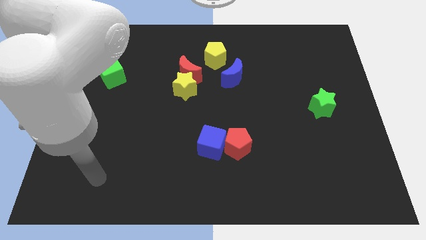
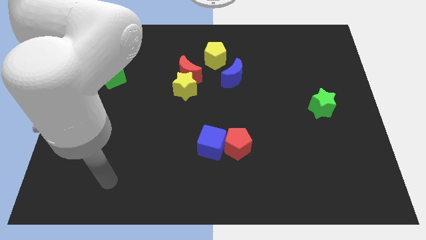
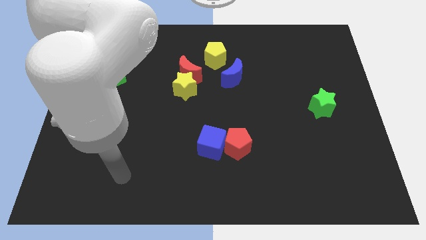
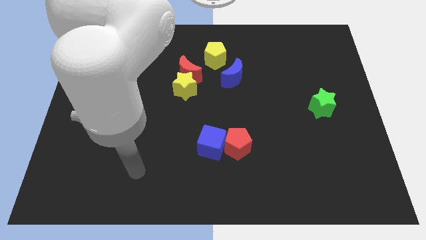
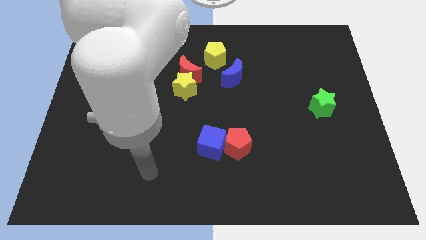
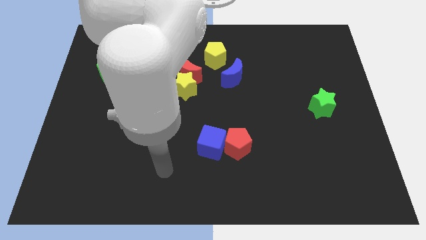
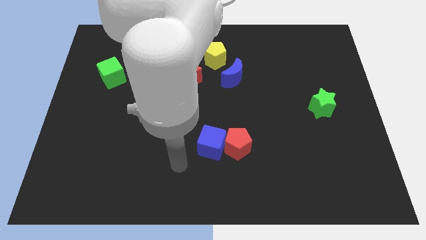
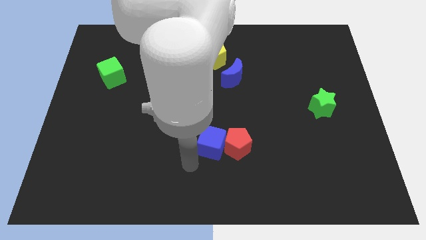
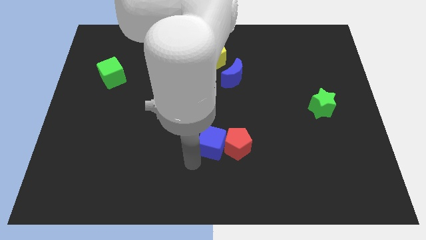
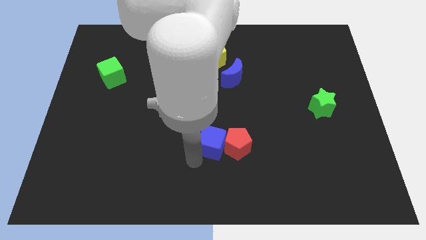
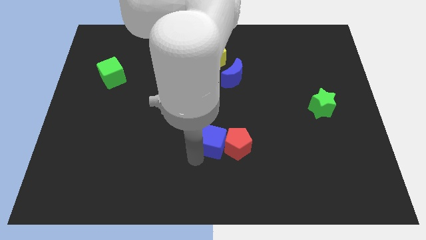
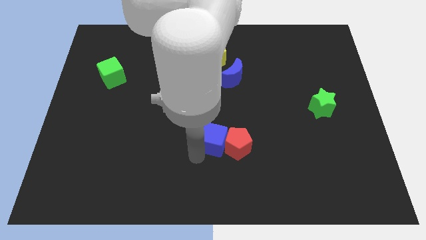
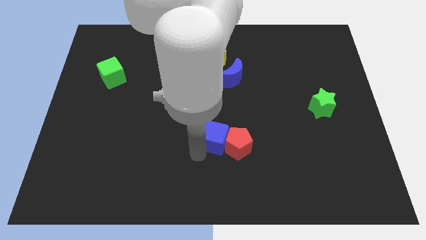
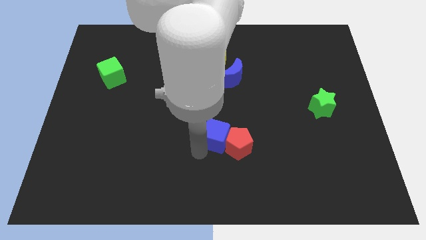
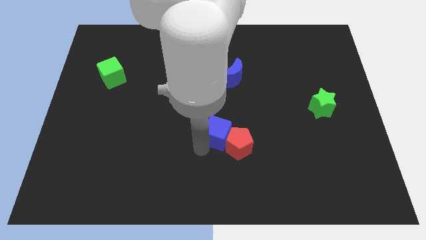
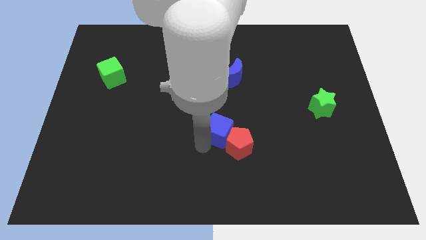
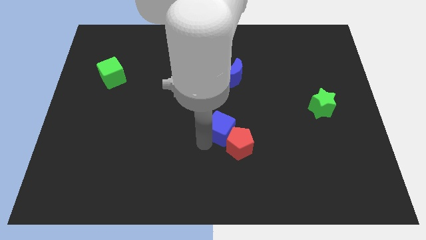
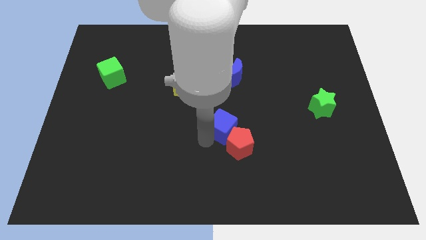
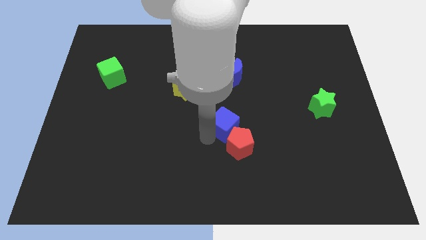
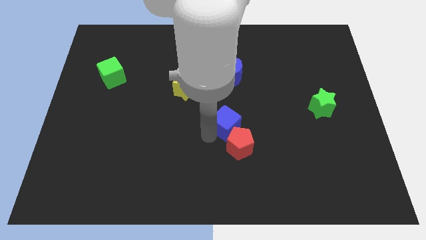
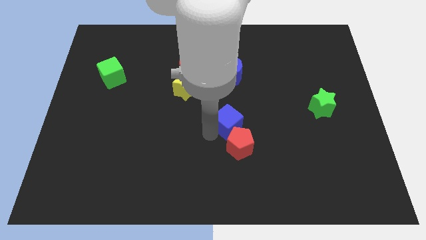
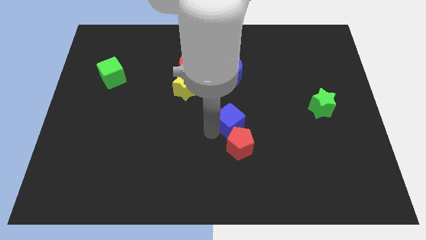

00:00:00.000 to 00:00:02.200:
slightly push the blue cube upwards and right

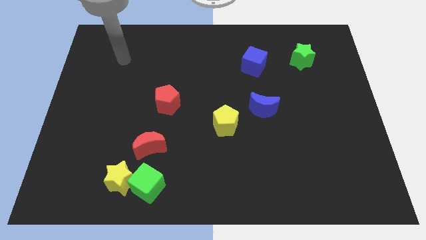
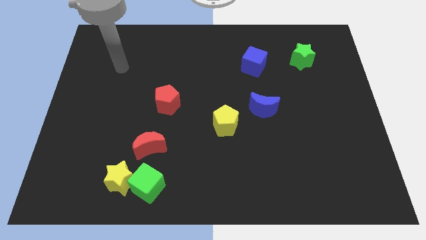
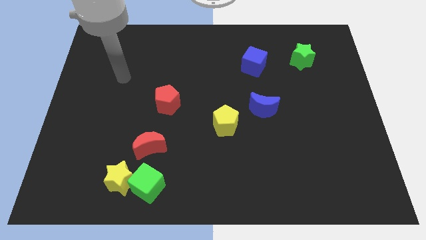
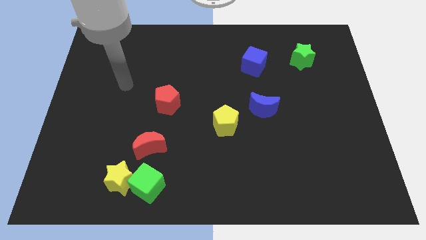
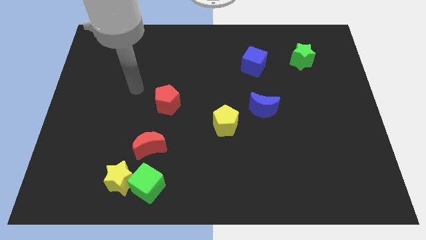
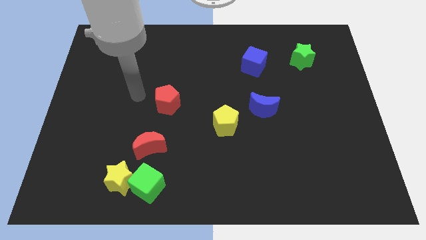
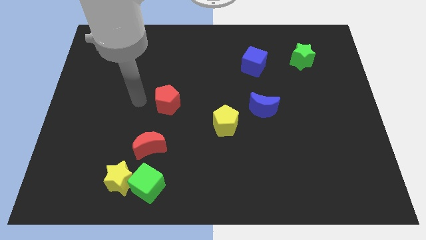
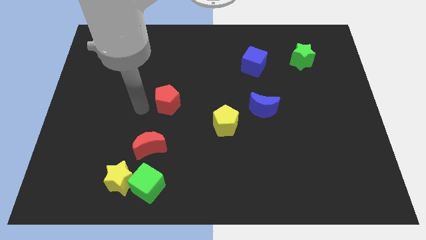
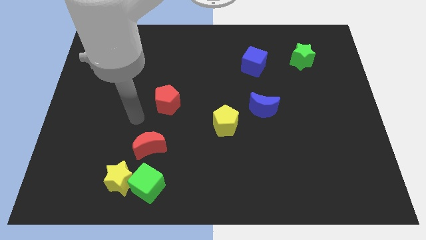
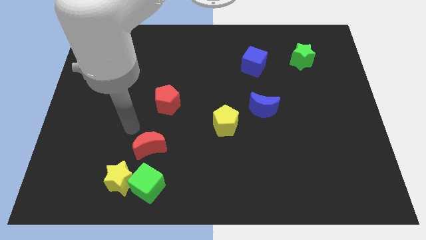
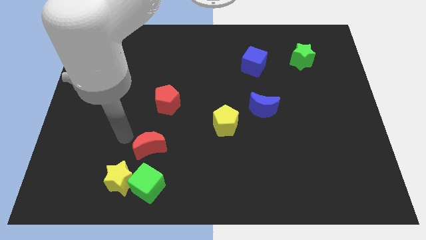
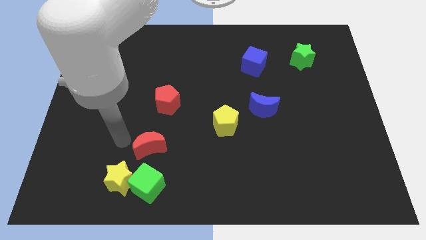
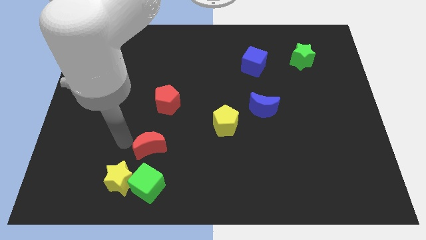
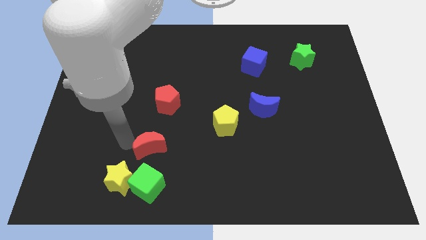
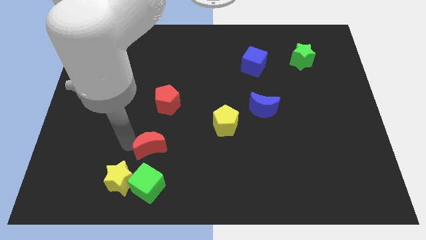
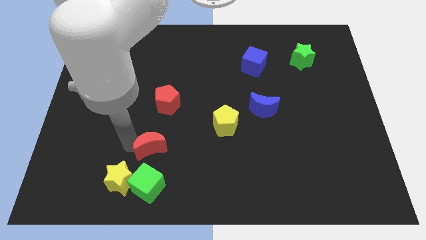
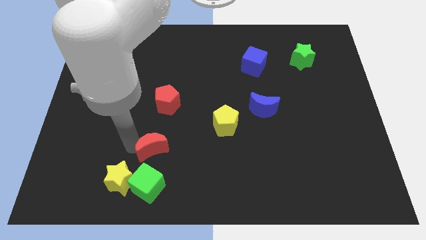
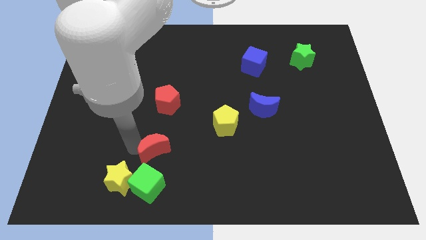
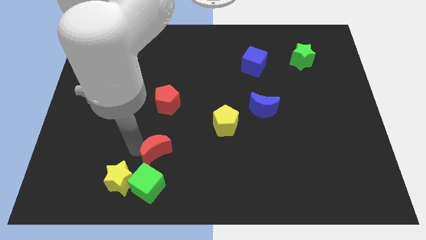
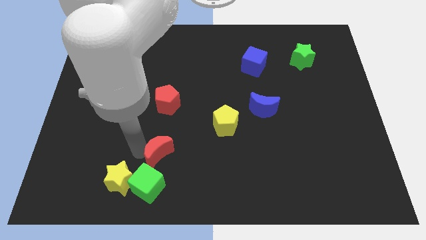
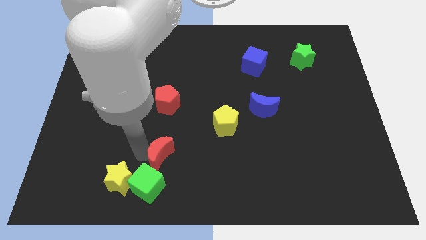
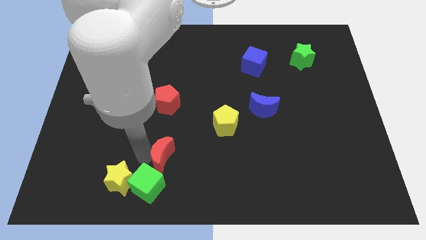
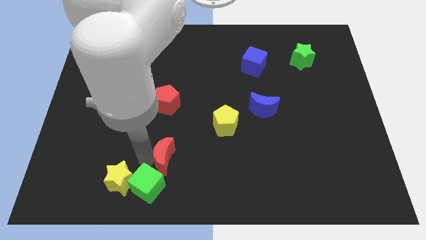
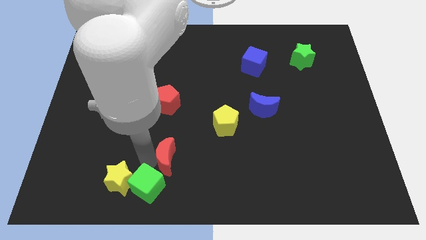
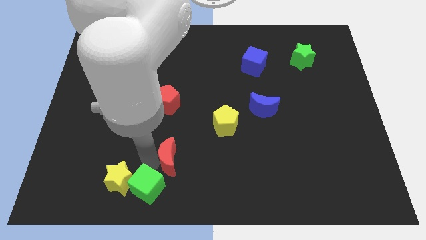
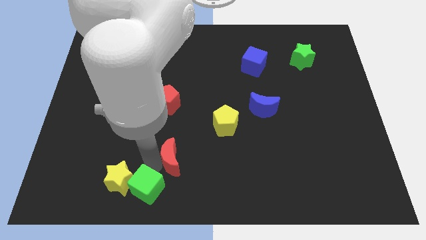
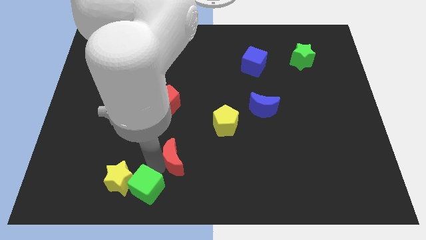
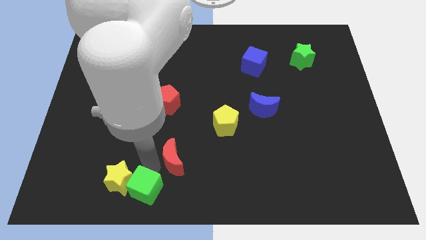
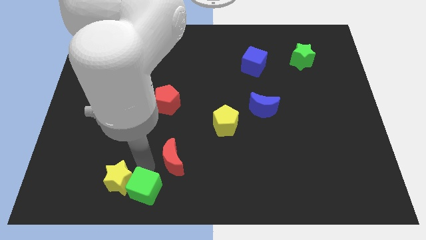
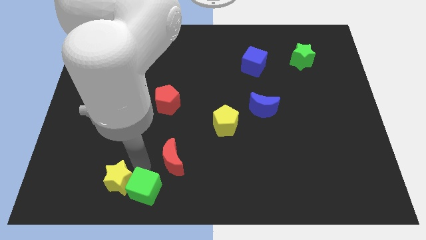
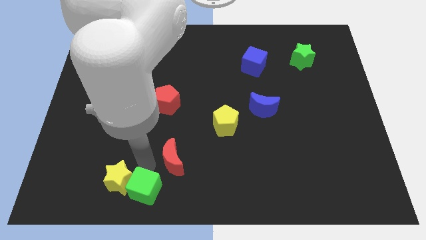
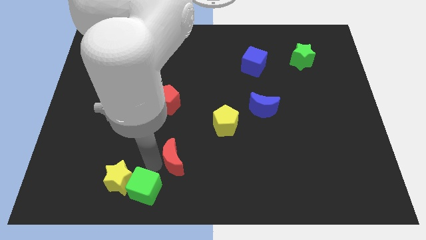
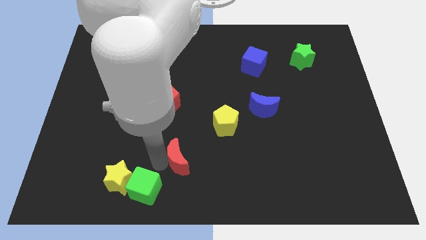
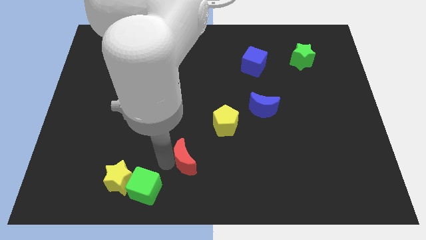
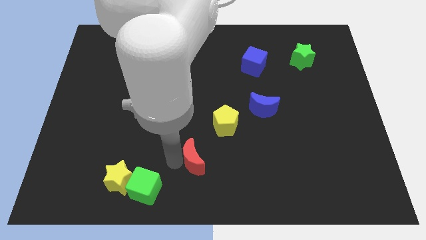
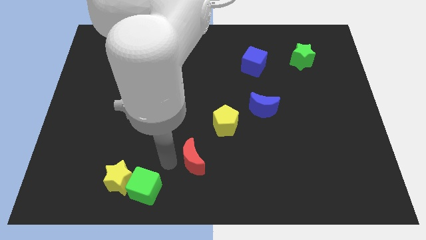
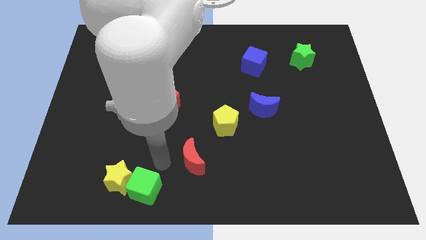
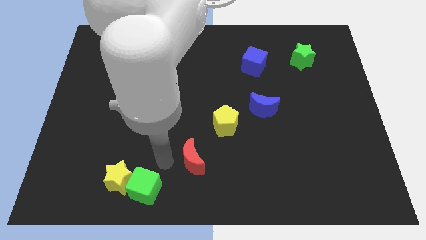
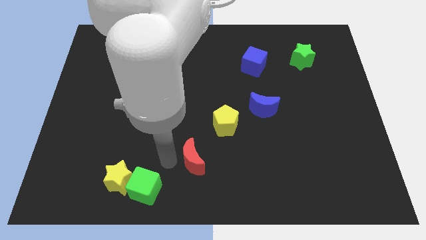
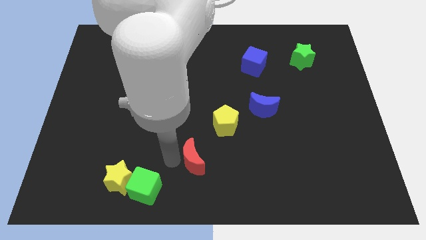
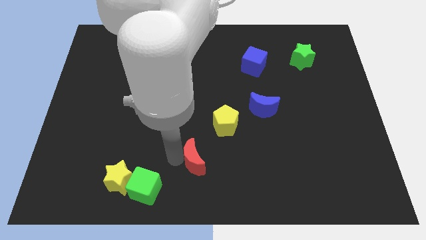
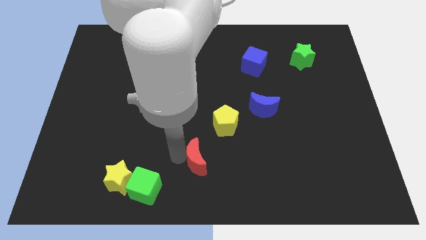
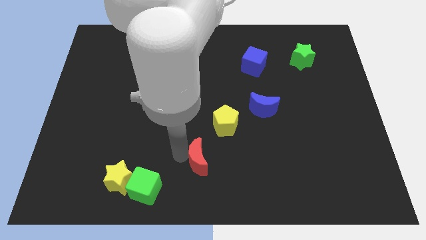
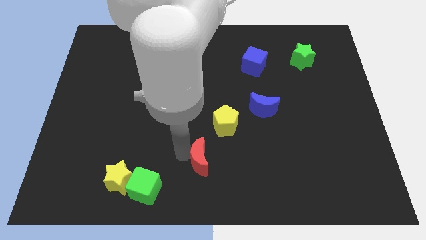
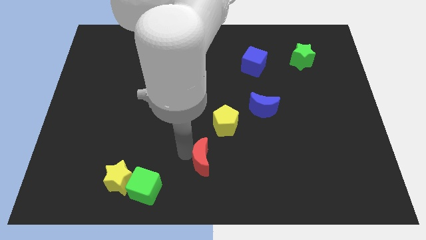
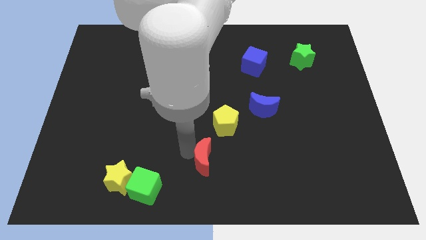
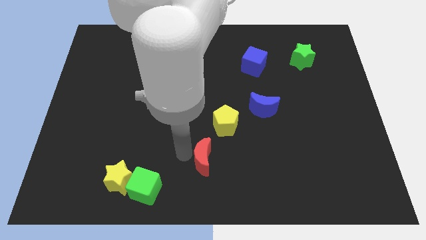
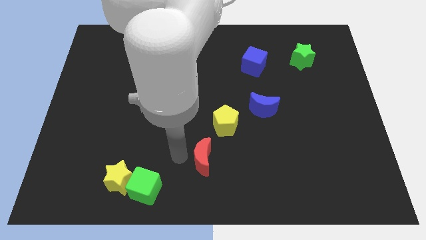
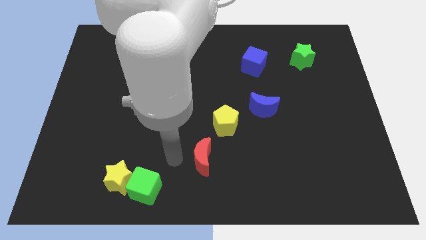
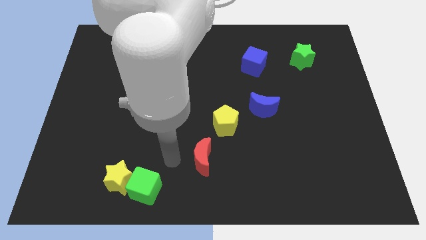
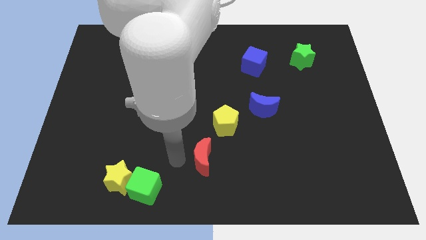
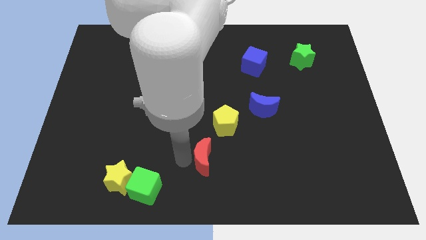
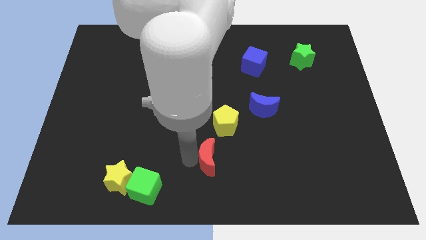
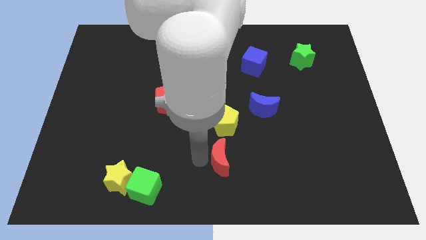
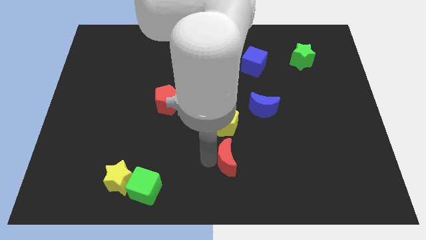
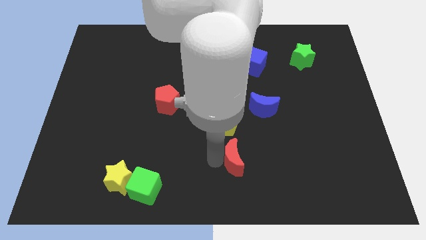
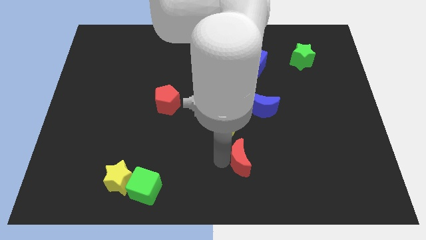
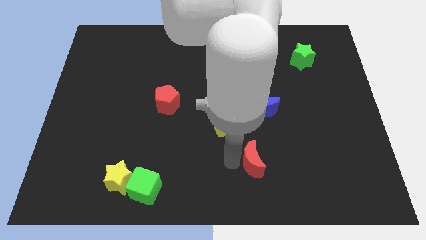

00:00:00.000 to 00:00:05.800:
slide the red moon right
